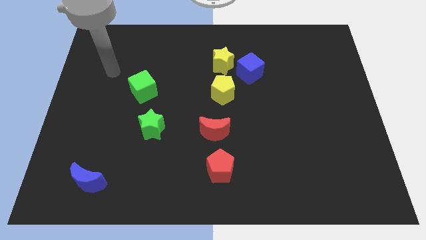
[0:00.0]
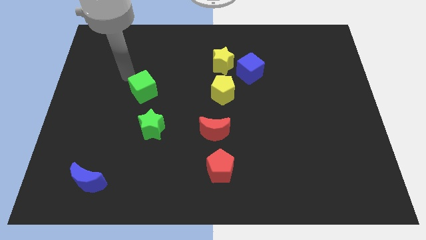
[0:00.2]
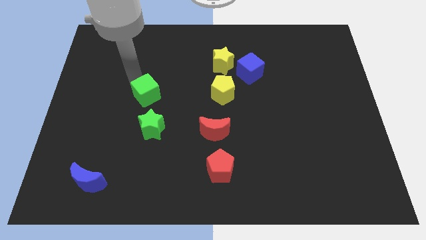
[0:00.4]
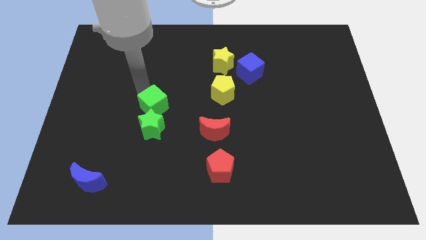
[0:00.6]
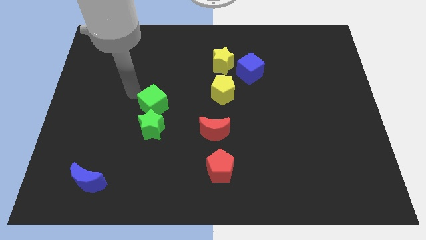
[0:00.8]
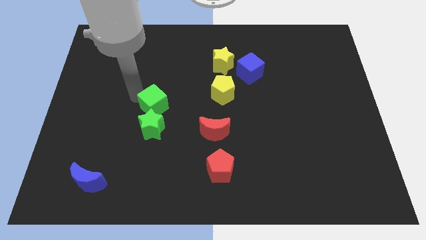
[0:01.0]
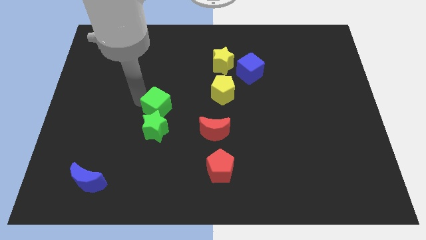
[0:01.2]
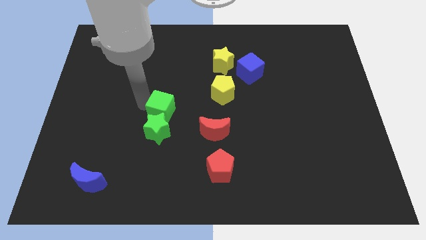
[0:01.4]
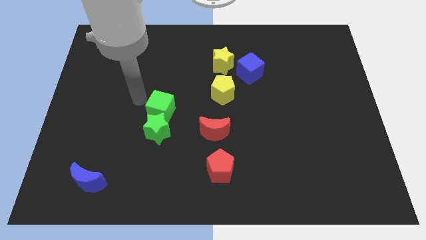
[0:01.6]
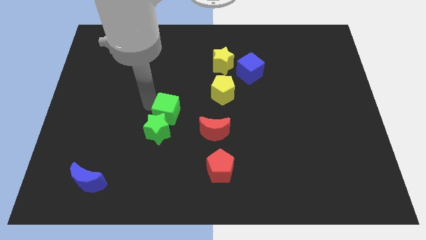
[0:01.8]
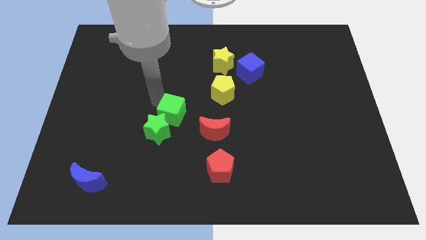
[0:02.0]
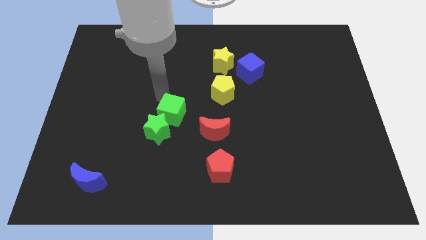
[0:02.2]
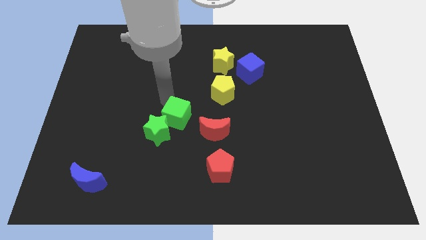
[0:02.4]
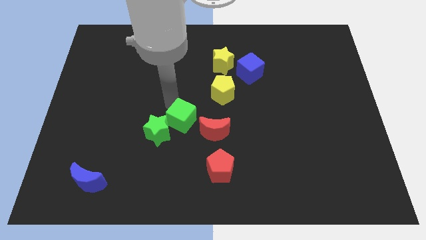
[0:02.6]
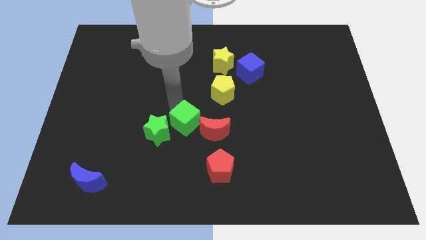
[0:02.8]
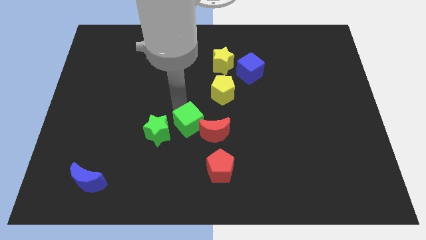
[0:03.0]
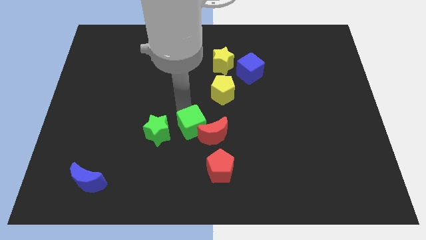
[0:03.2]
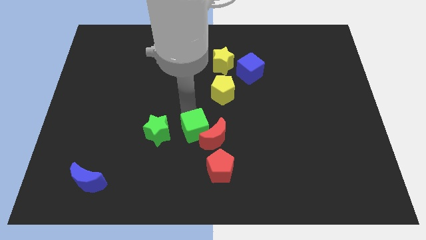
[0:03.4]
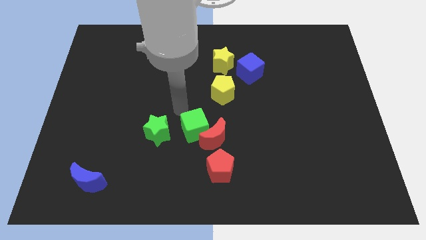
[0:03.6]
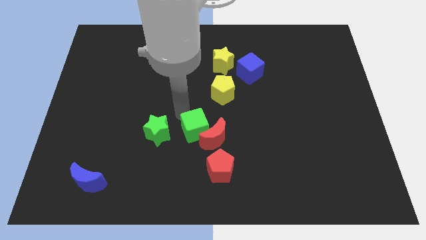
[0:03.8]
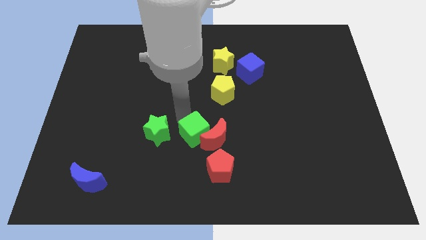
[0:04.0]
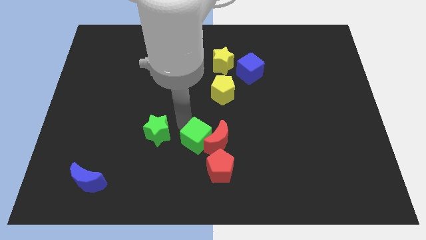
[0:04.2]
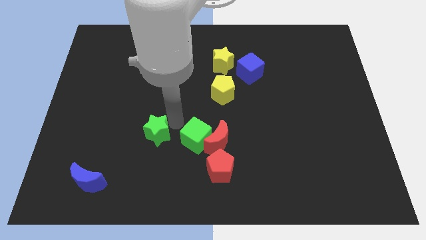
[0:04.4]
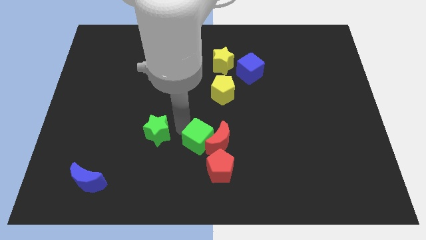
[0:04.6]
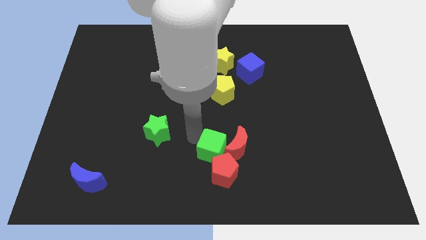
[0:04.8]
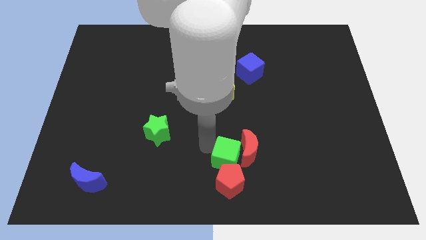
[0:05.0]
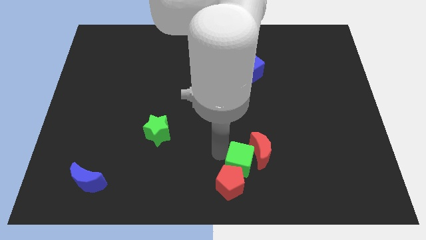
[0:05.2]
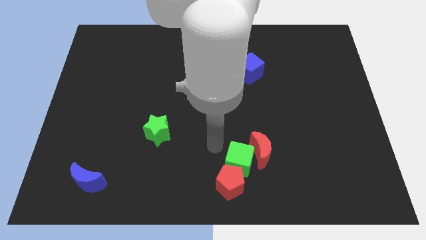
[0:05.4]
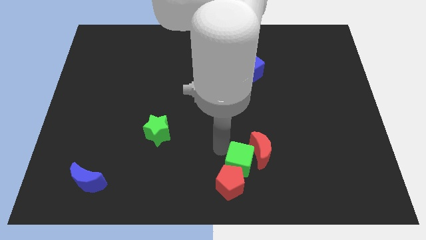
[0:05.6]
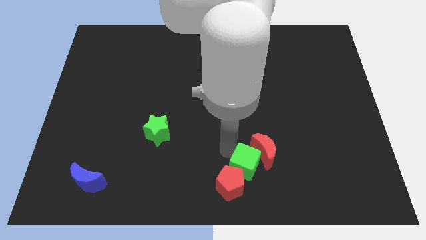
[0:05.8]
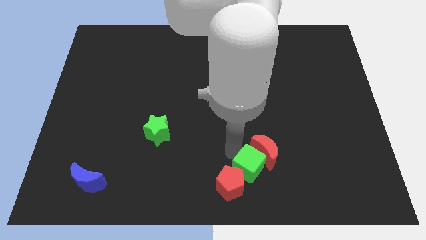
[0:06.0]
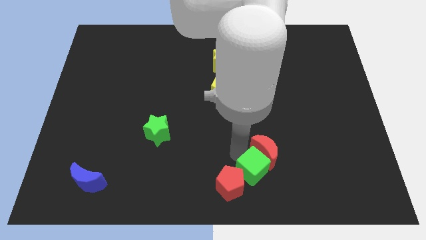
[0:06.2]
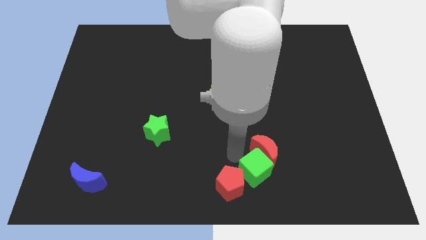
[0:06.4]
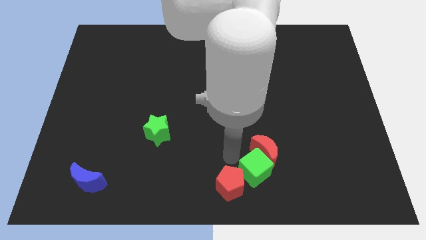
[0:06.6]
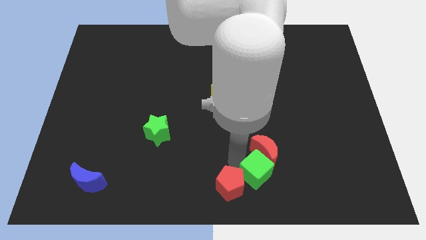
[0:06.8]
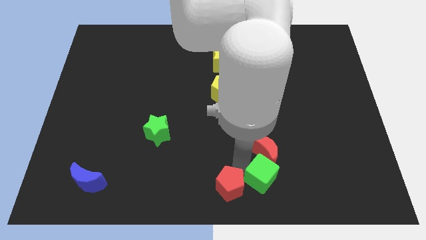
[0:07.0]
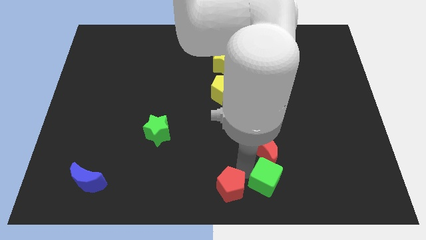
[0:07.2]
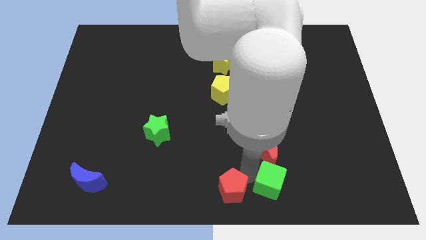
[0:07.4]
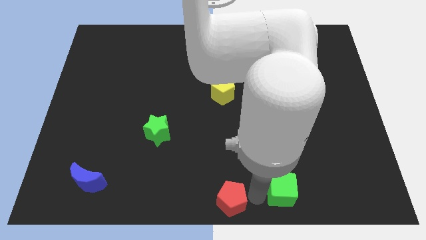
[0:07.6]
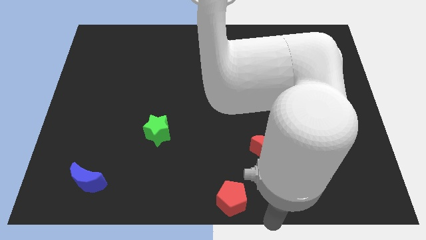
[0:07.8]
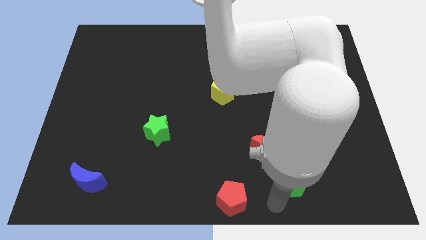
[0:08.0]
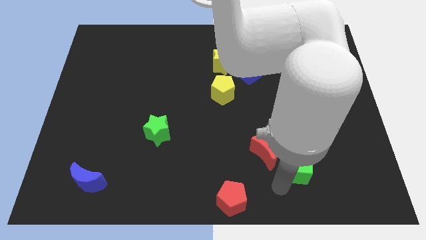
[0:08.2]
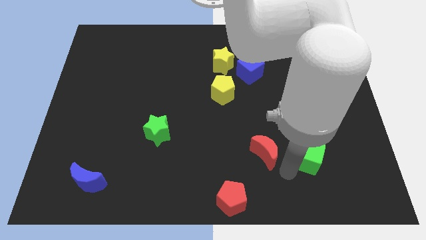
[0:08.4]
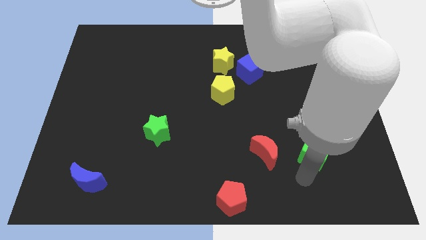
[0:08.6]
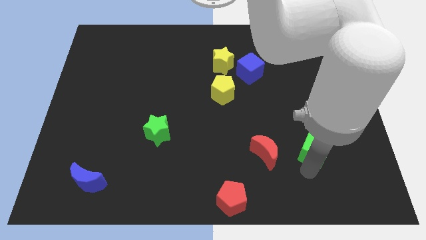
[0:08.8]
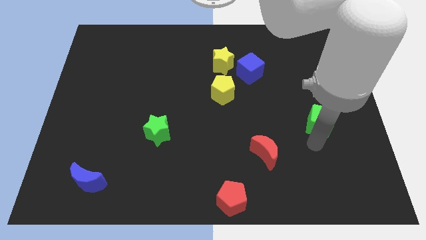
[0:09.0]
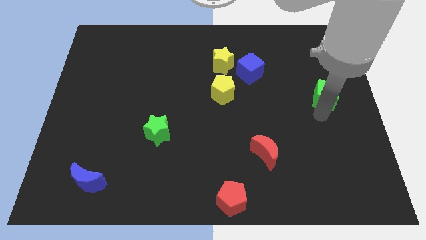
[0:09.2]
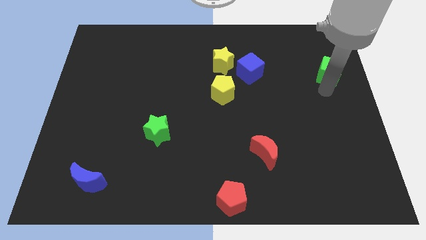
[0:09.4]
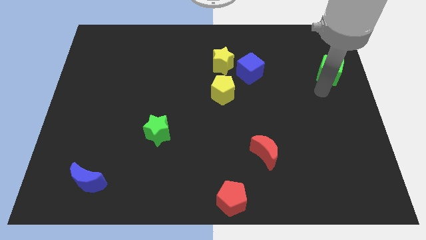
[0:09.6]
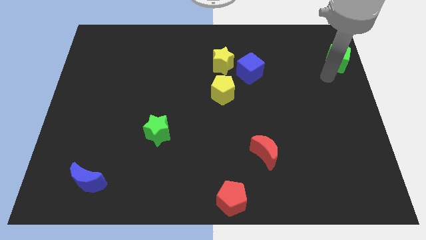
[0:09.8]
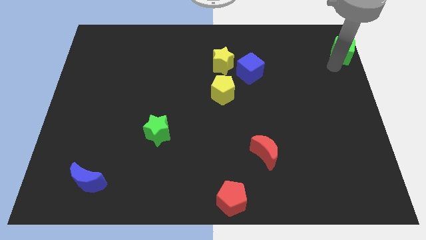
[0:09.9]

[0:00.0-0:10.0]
push the green cube to the upper right corner
